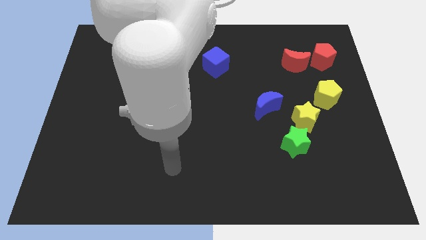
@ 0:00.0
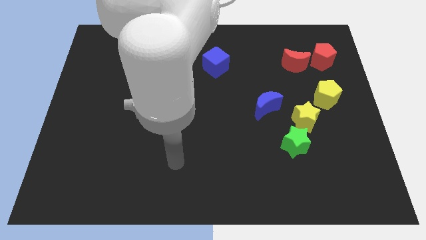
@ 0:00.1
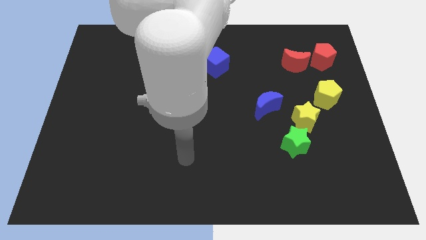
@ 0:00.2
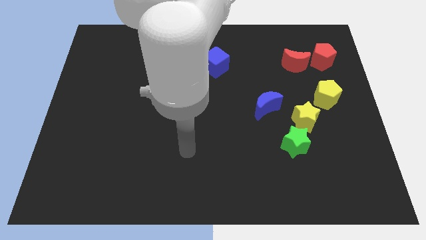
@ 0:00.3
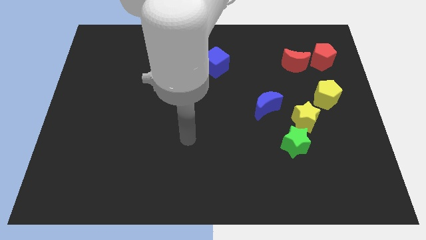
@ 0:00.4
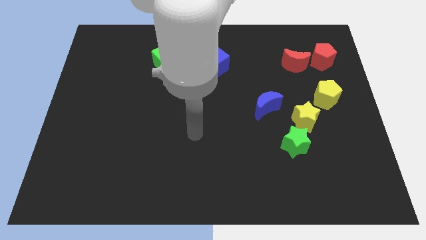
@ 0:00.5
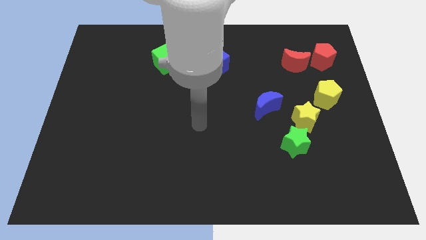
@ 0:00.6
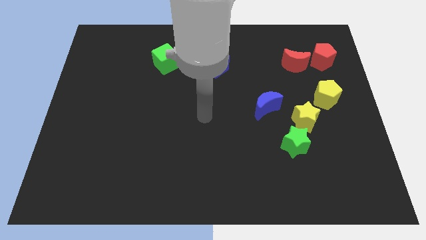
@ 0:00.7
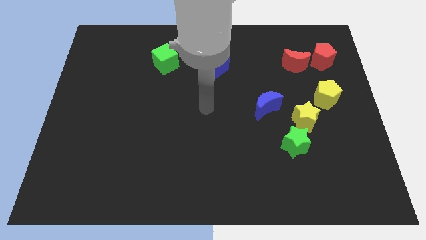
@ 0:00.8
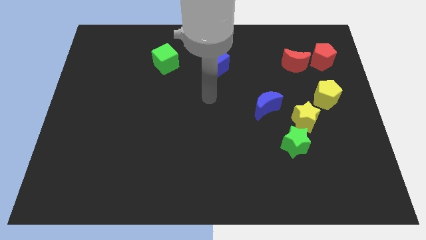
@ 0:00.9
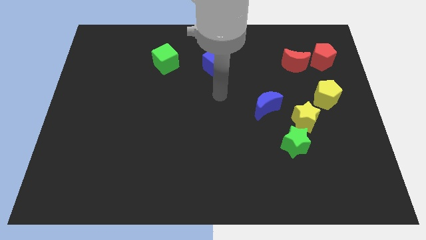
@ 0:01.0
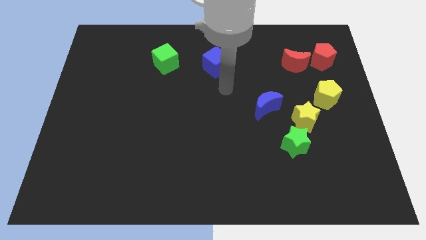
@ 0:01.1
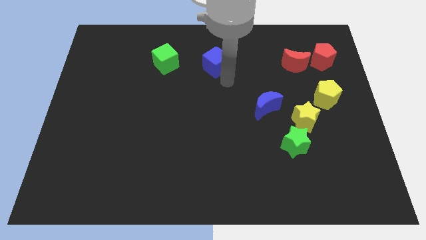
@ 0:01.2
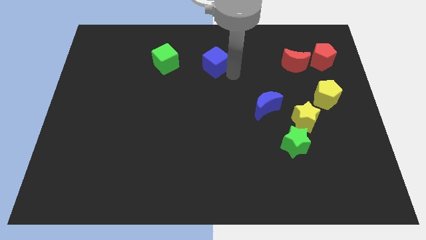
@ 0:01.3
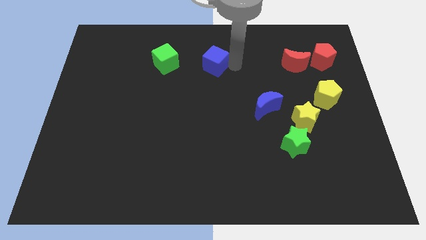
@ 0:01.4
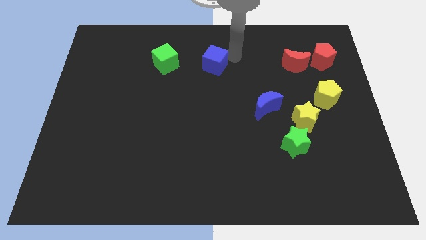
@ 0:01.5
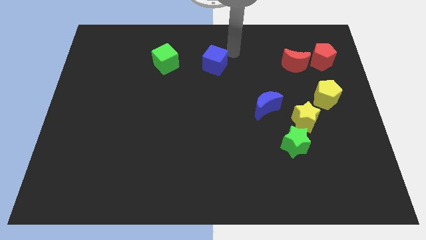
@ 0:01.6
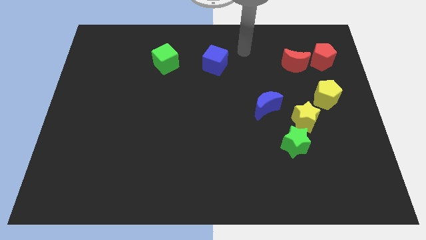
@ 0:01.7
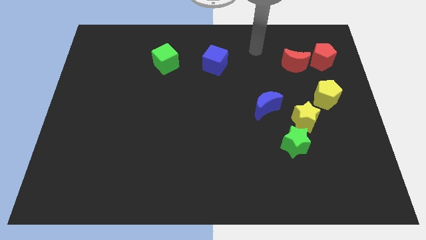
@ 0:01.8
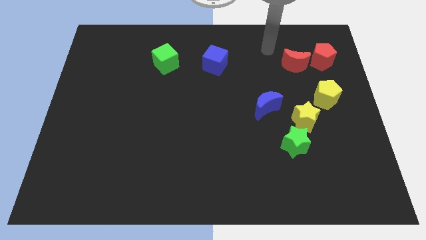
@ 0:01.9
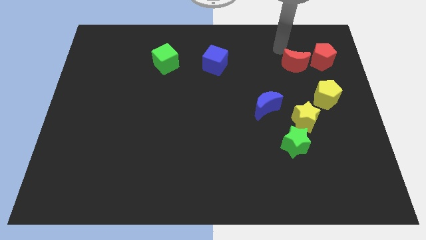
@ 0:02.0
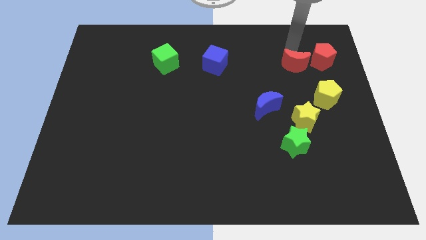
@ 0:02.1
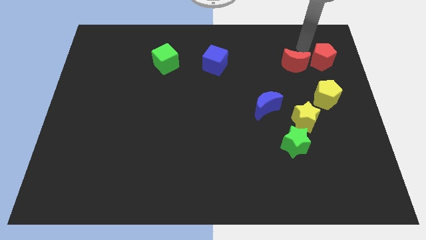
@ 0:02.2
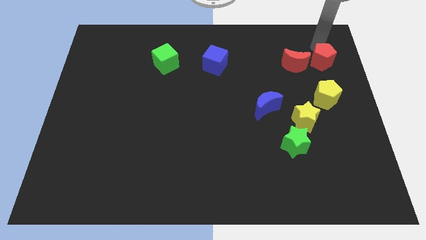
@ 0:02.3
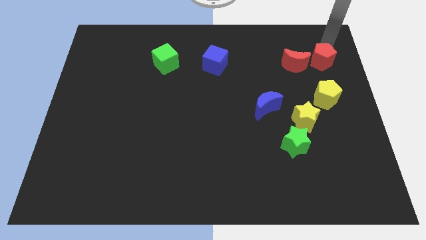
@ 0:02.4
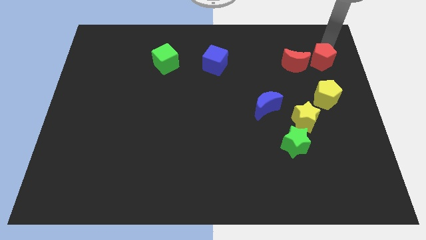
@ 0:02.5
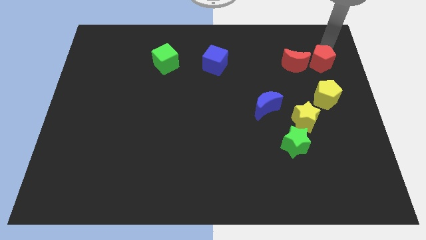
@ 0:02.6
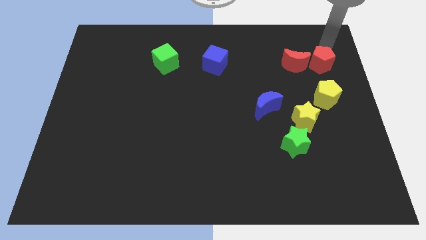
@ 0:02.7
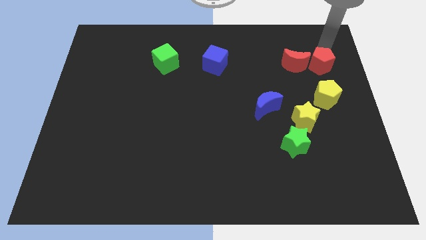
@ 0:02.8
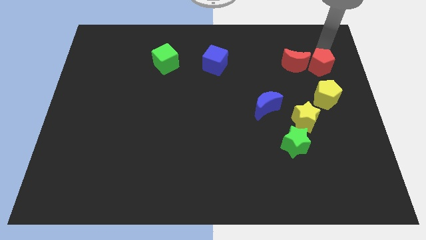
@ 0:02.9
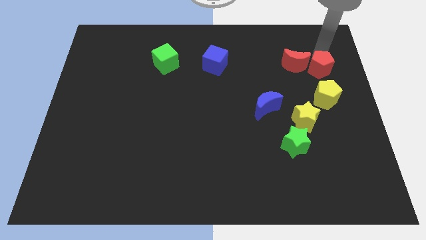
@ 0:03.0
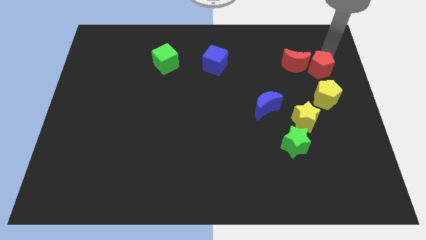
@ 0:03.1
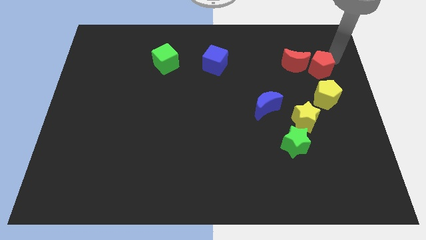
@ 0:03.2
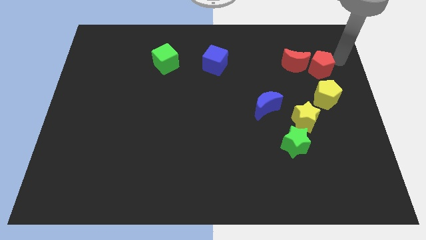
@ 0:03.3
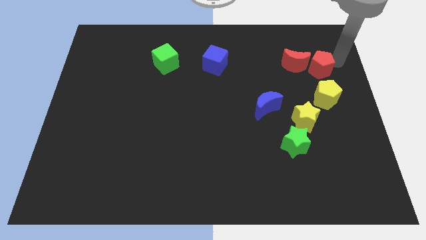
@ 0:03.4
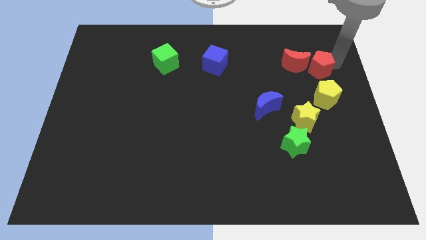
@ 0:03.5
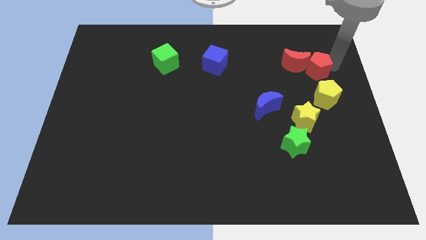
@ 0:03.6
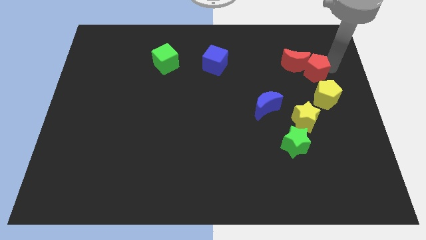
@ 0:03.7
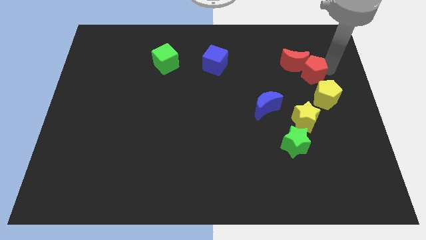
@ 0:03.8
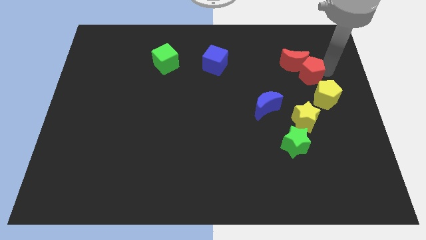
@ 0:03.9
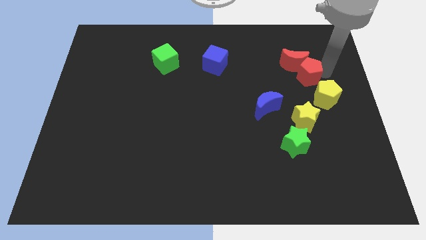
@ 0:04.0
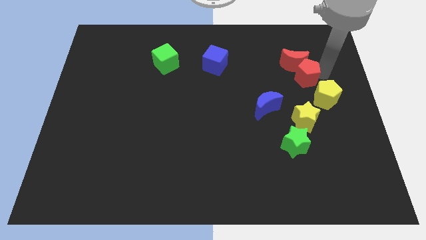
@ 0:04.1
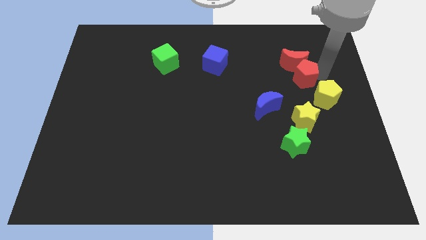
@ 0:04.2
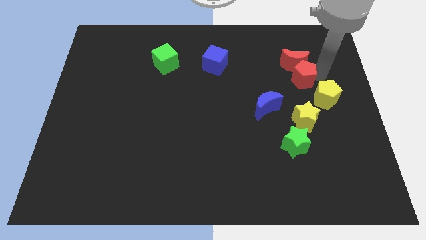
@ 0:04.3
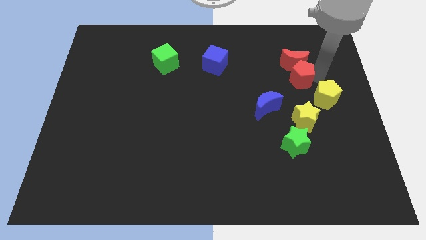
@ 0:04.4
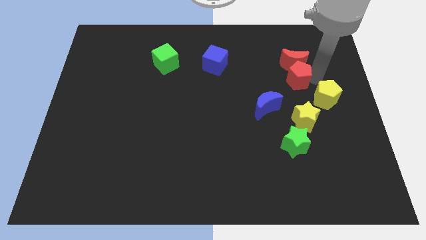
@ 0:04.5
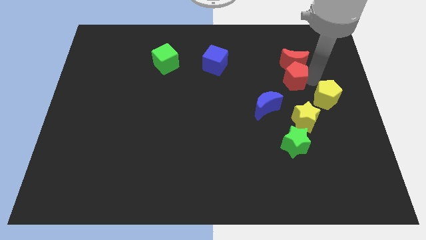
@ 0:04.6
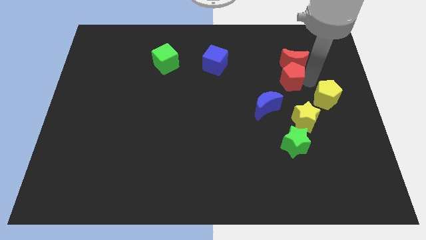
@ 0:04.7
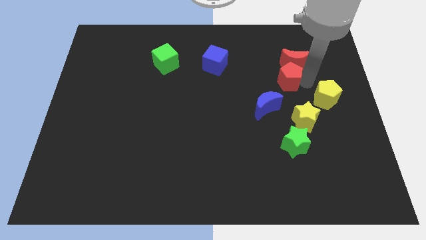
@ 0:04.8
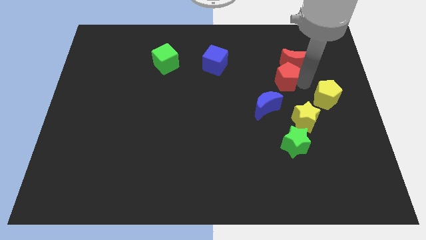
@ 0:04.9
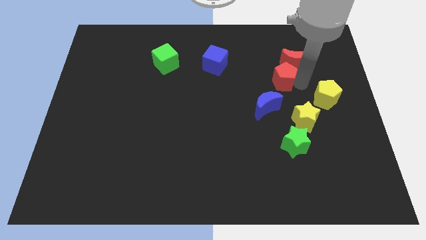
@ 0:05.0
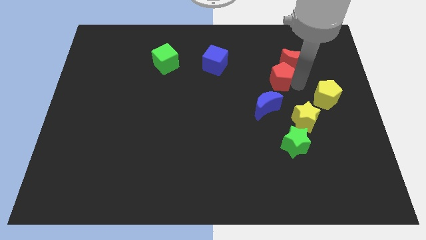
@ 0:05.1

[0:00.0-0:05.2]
slide the red pentagon above the blue moon

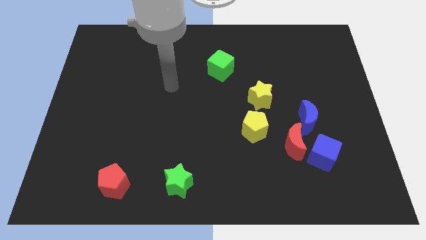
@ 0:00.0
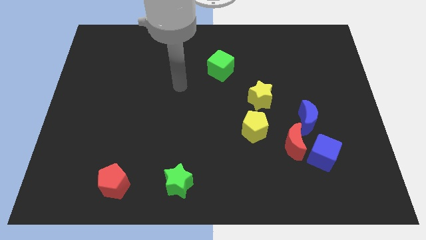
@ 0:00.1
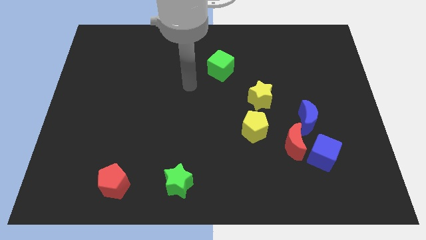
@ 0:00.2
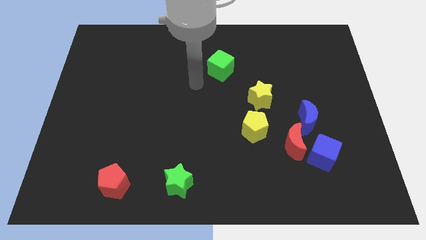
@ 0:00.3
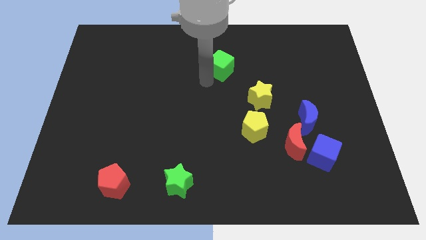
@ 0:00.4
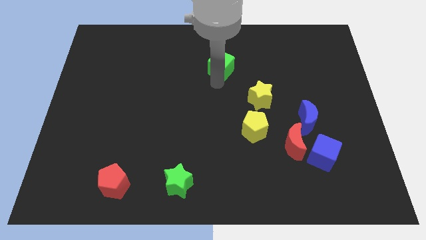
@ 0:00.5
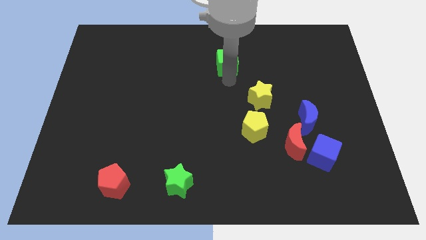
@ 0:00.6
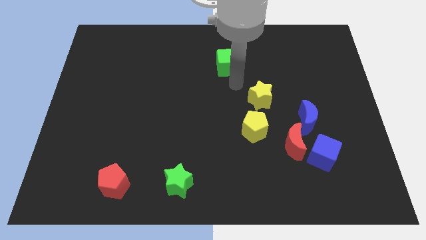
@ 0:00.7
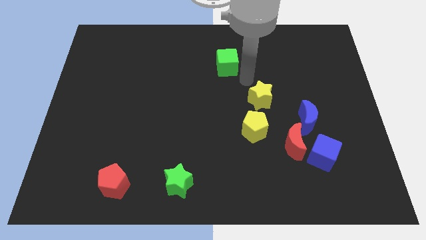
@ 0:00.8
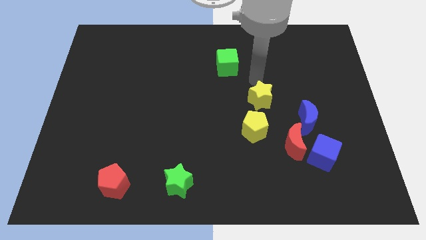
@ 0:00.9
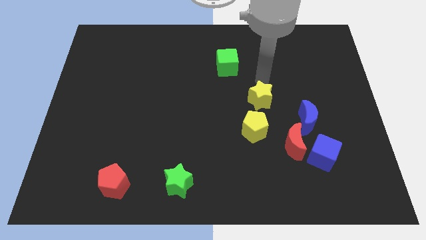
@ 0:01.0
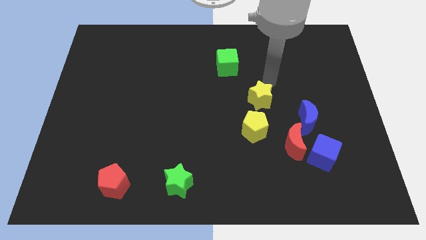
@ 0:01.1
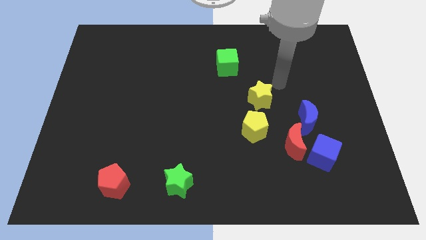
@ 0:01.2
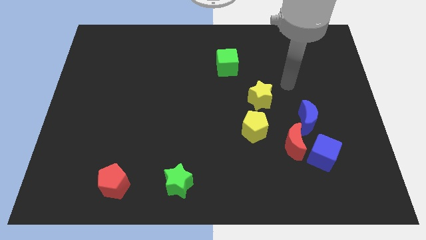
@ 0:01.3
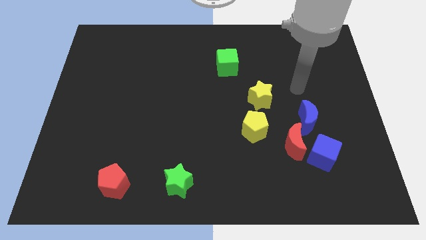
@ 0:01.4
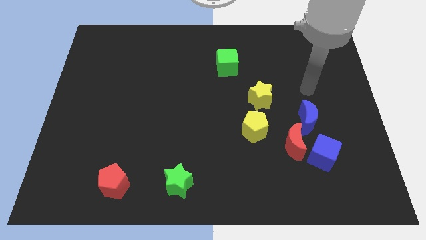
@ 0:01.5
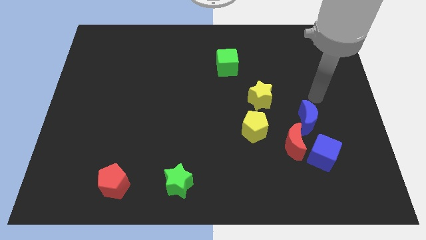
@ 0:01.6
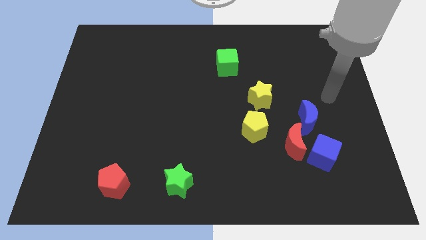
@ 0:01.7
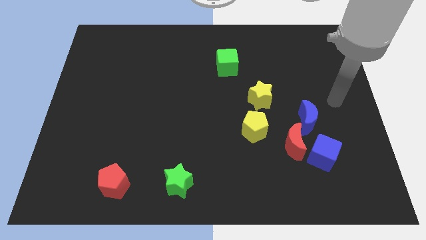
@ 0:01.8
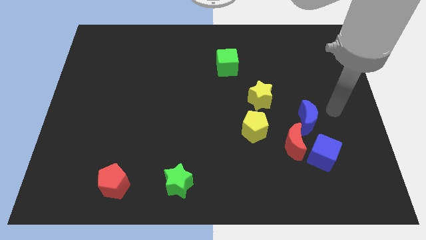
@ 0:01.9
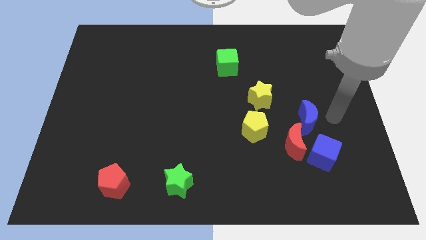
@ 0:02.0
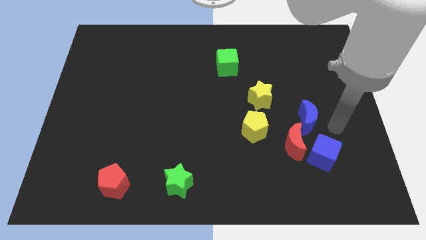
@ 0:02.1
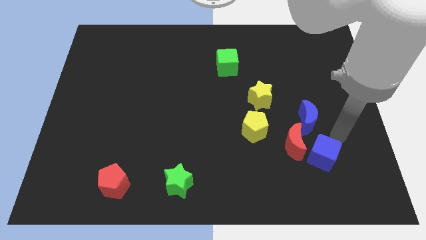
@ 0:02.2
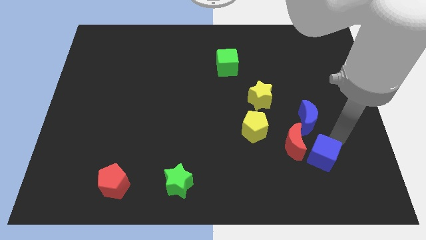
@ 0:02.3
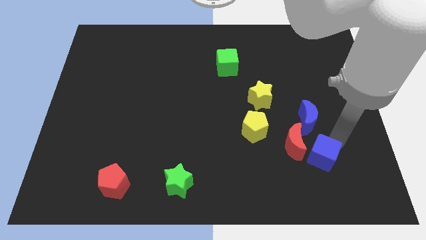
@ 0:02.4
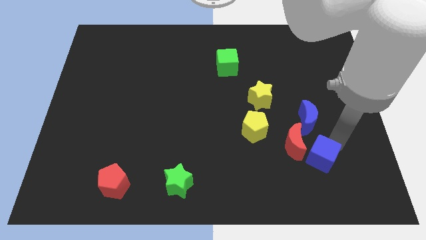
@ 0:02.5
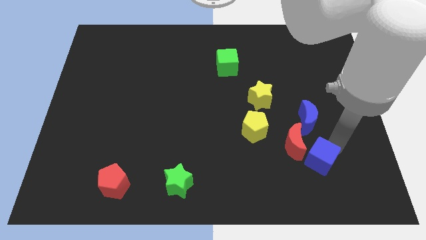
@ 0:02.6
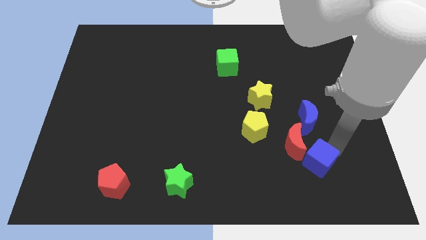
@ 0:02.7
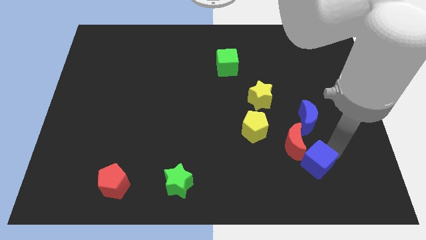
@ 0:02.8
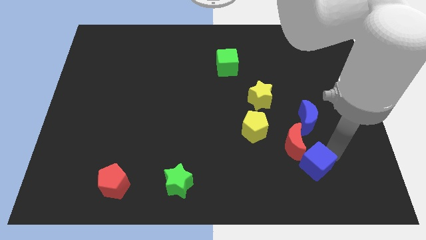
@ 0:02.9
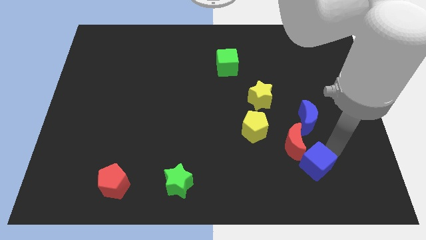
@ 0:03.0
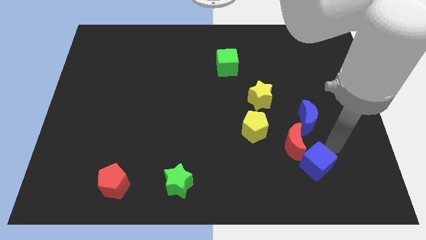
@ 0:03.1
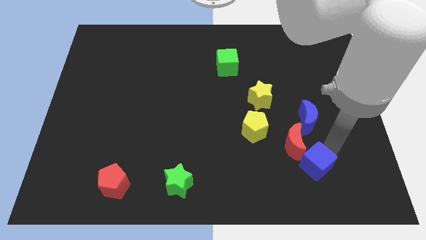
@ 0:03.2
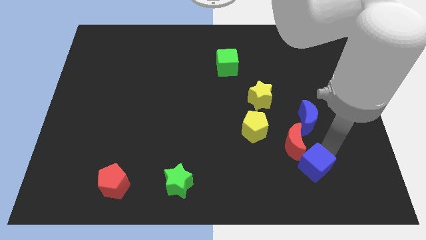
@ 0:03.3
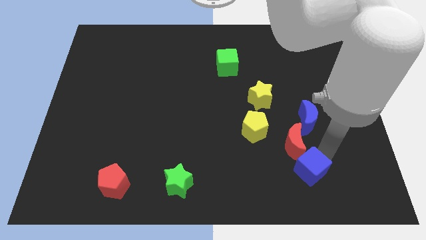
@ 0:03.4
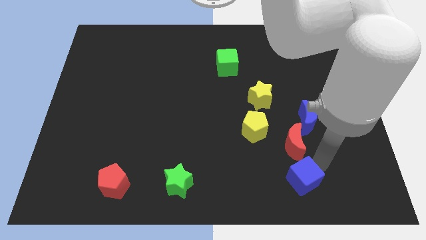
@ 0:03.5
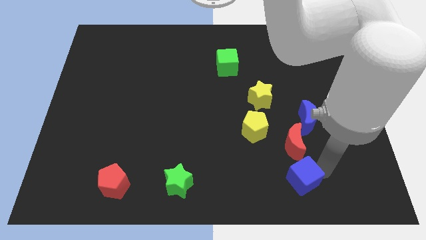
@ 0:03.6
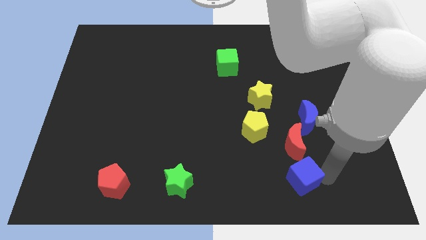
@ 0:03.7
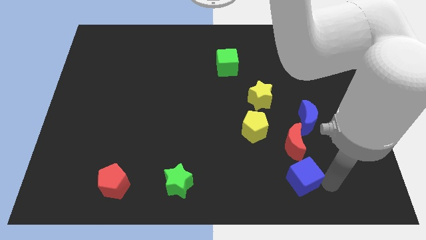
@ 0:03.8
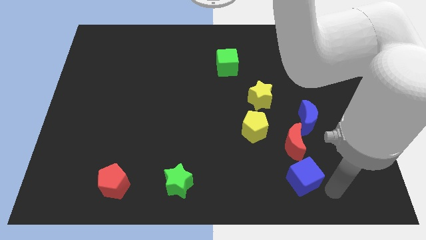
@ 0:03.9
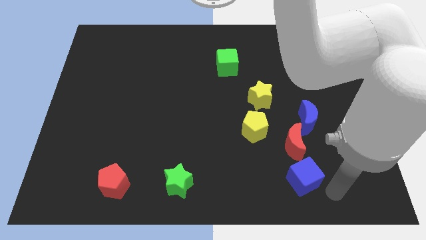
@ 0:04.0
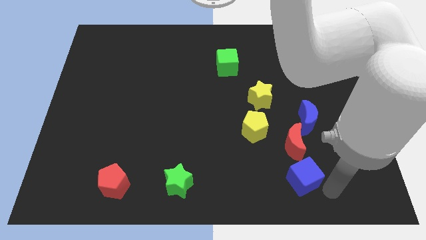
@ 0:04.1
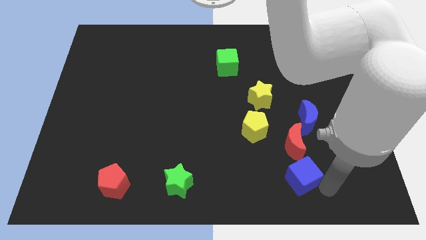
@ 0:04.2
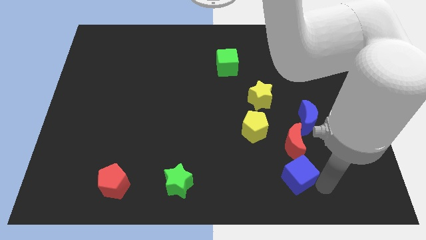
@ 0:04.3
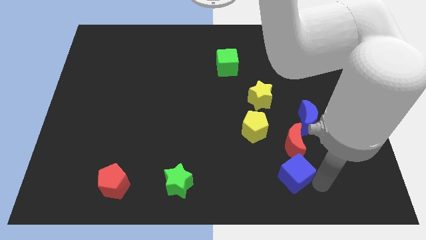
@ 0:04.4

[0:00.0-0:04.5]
put the blue cube to the bottom left side of the red moon
